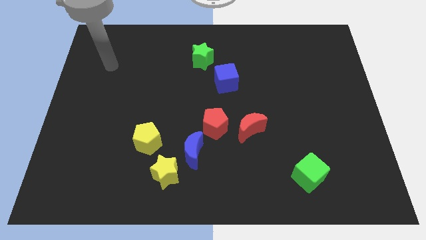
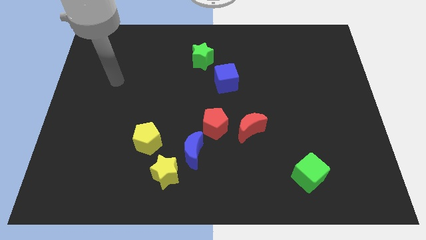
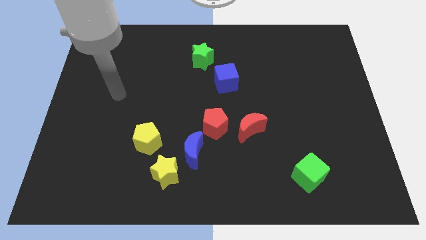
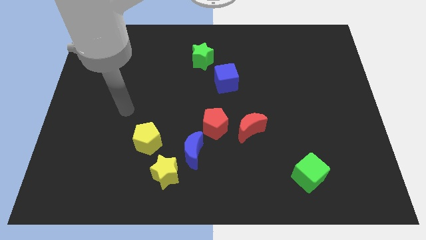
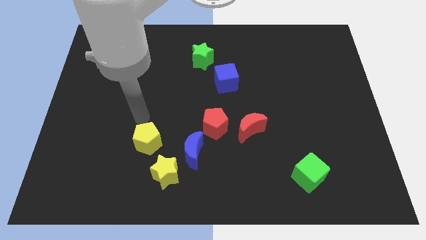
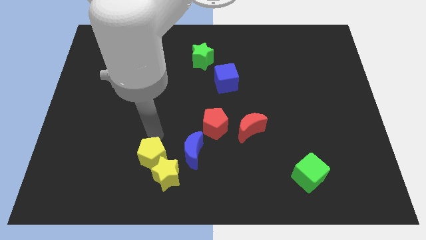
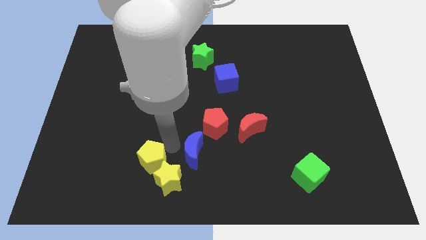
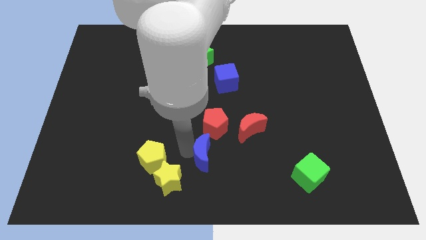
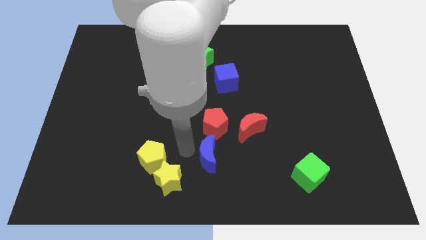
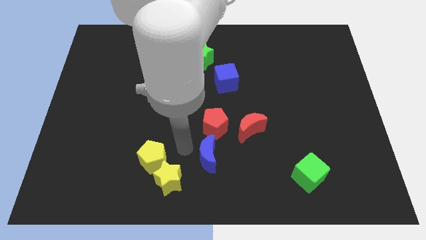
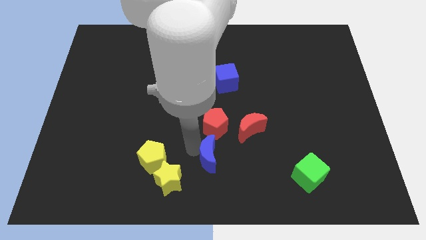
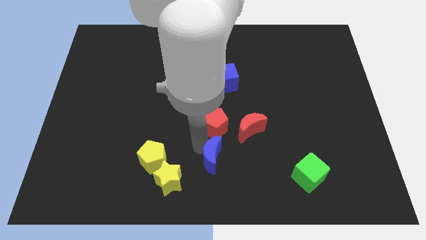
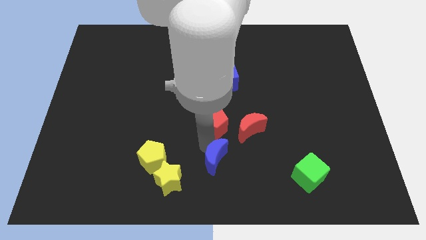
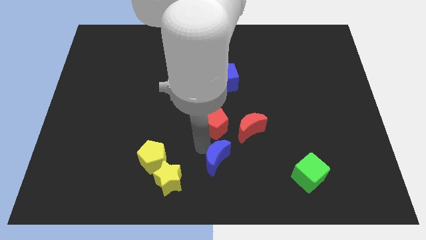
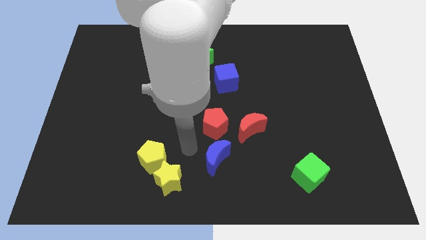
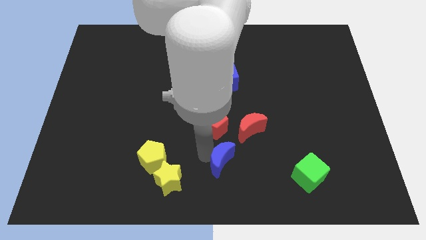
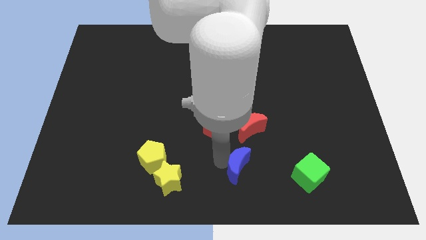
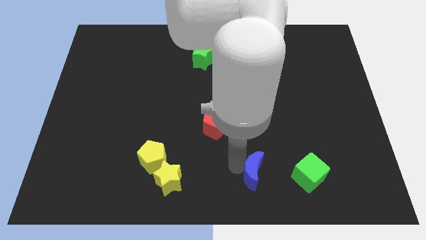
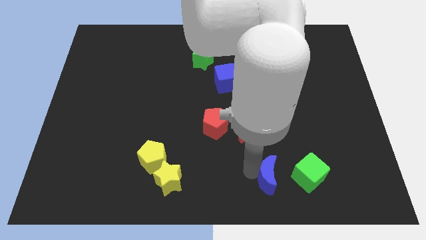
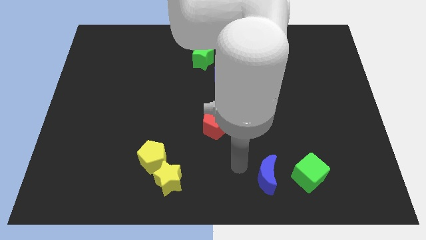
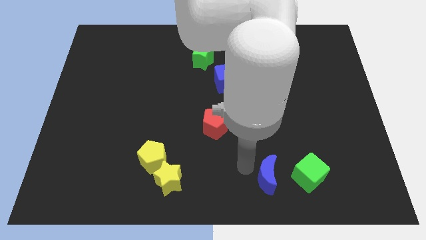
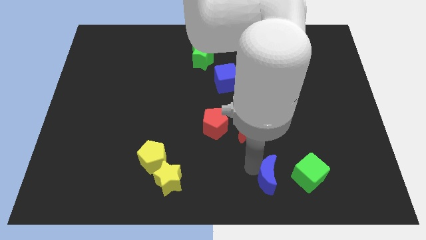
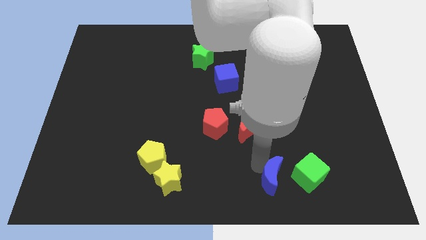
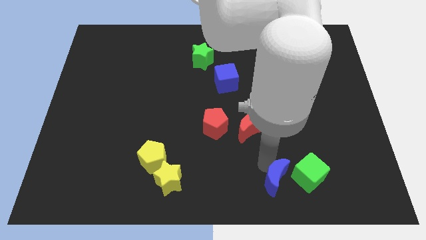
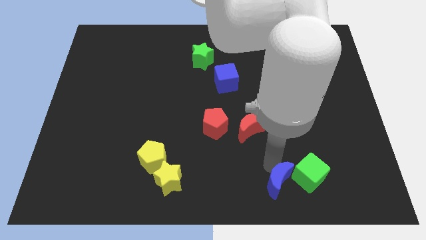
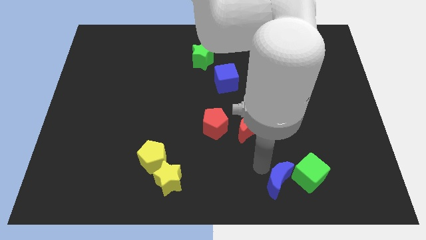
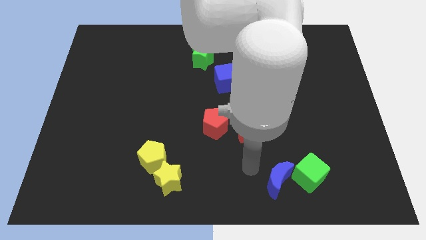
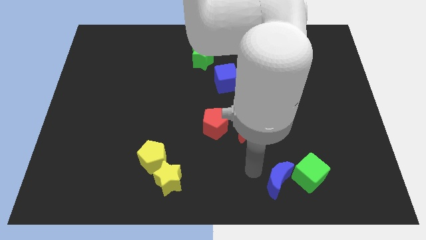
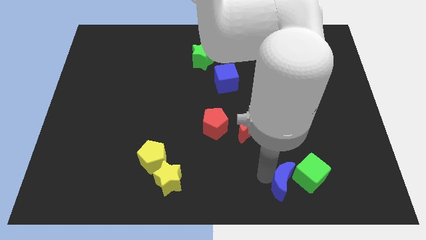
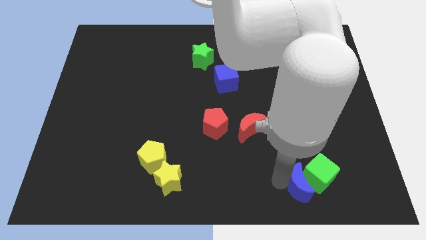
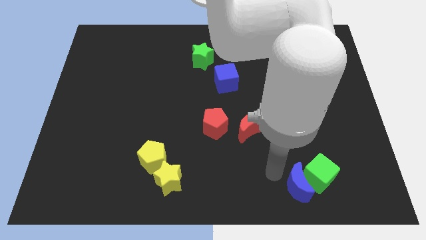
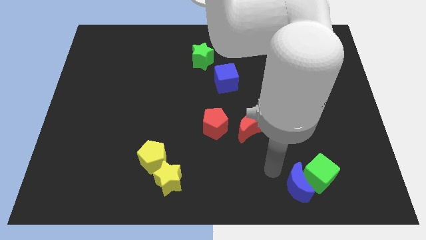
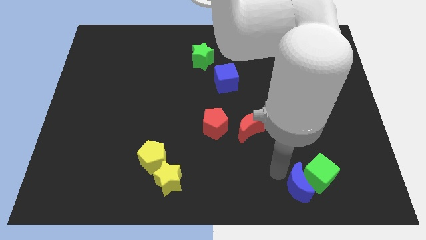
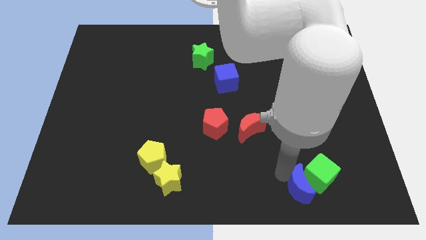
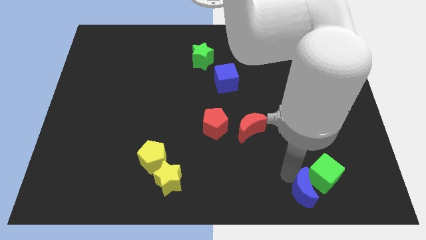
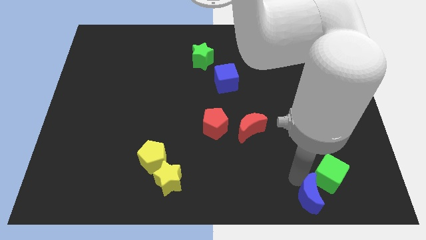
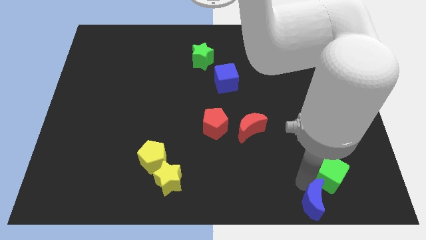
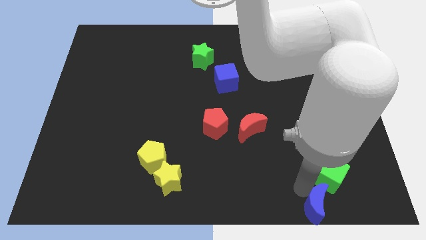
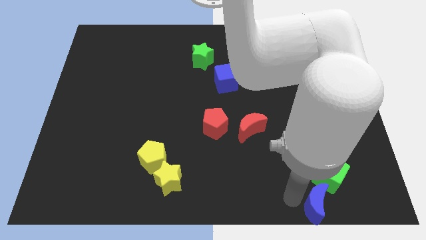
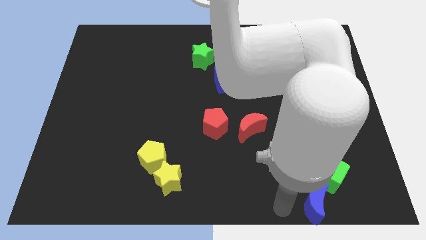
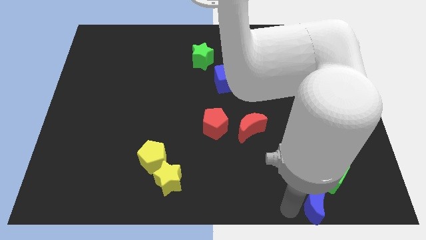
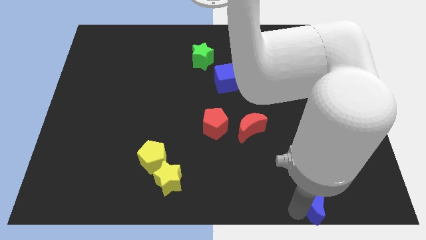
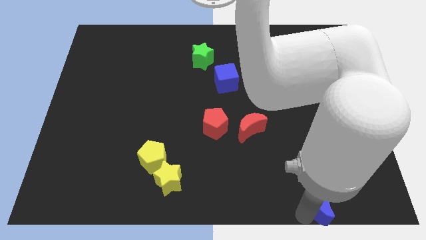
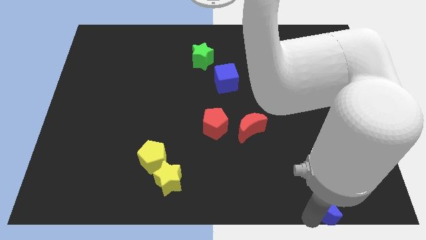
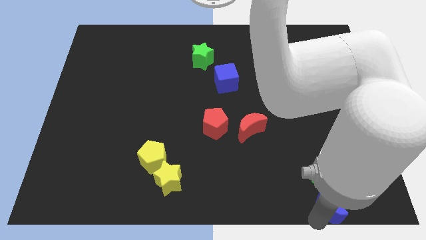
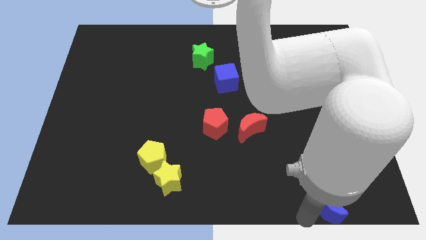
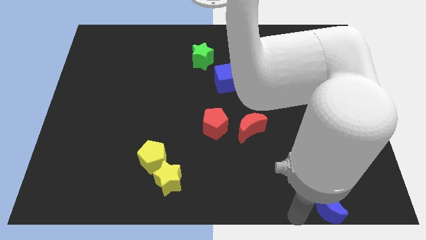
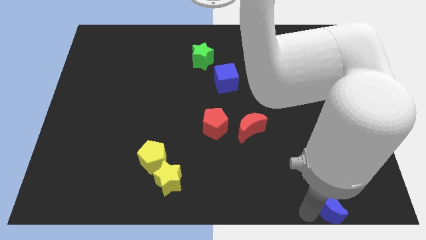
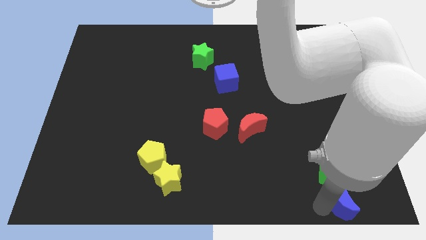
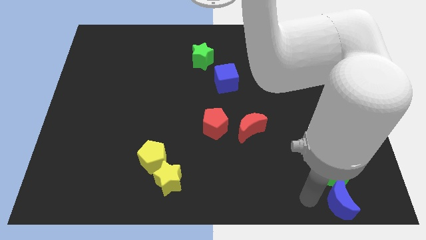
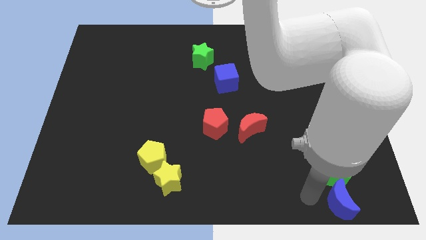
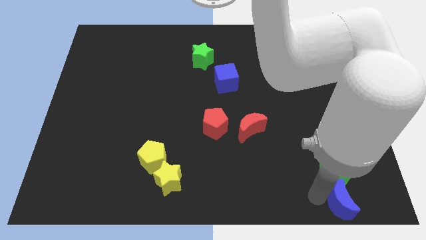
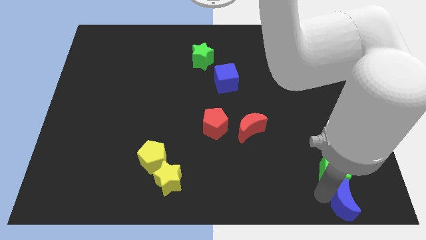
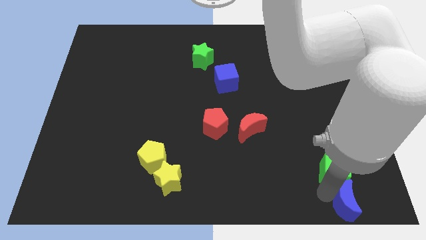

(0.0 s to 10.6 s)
push the blue moon to the bottom right of the board

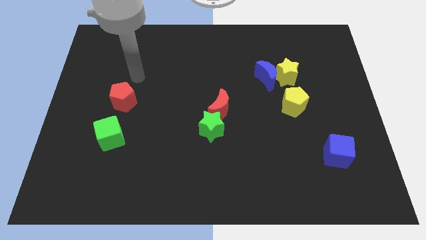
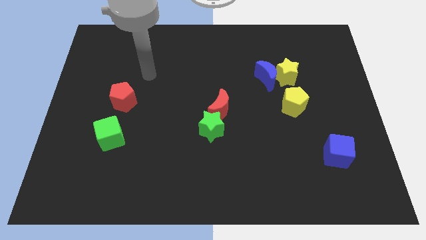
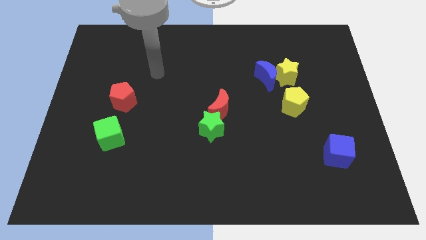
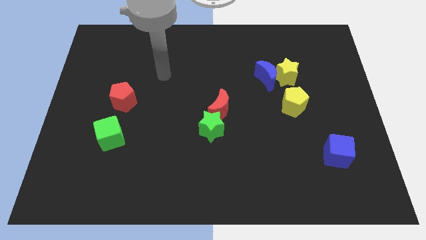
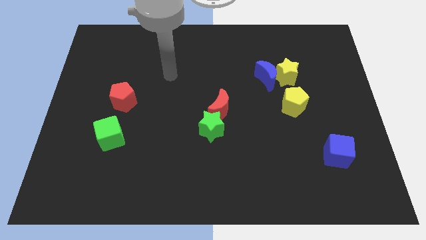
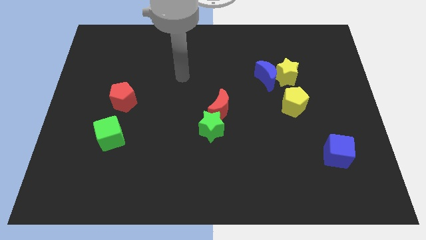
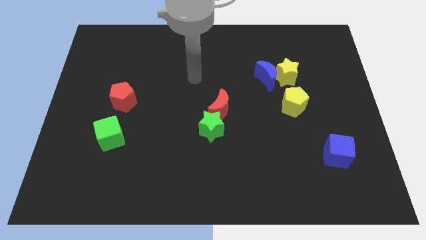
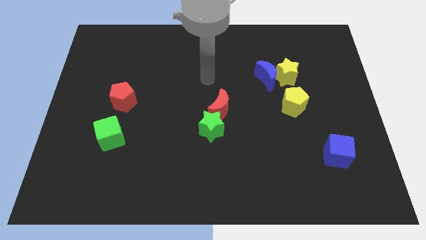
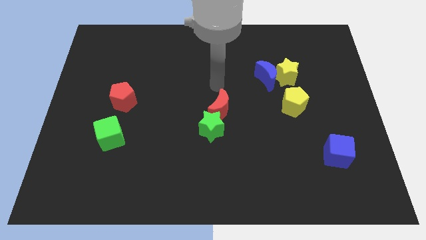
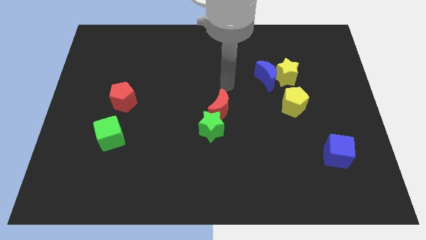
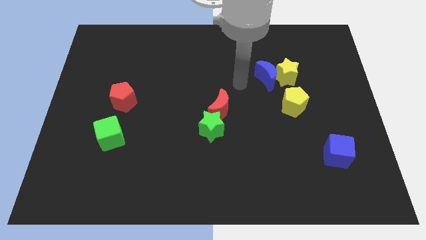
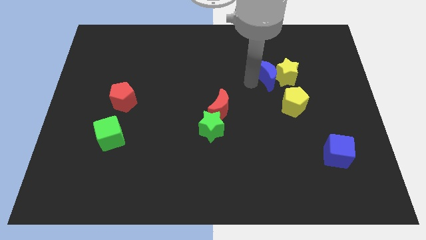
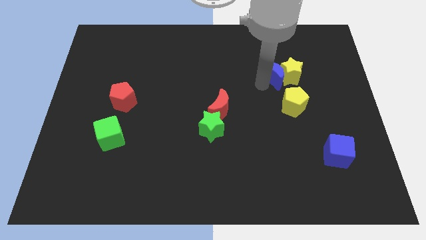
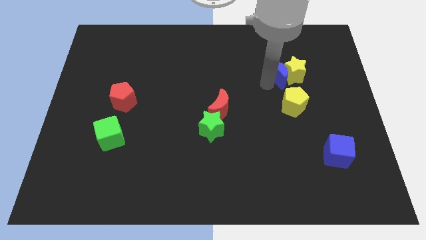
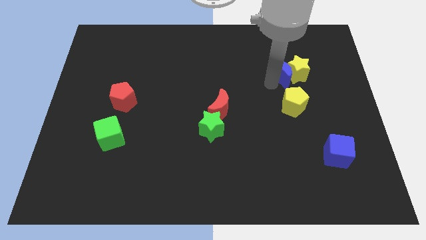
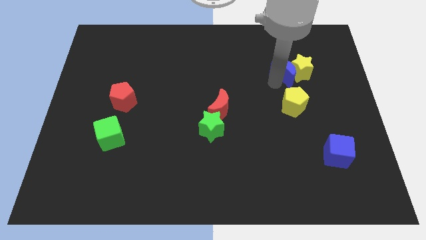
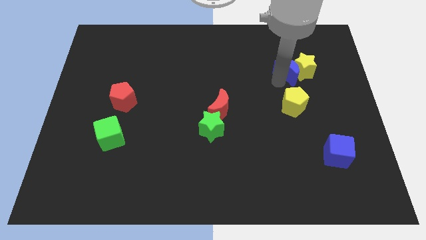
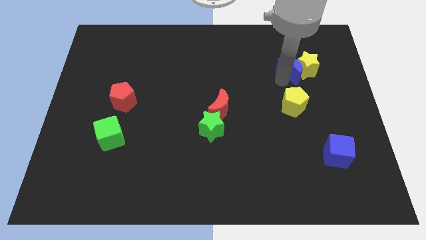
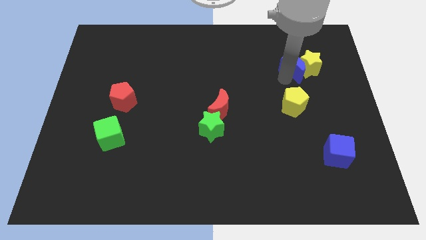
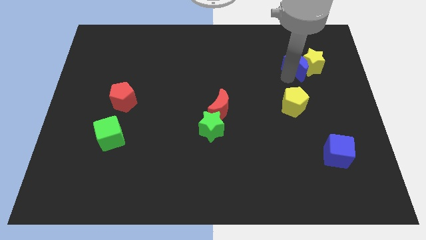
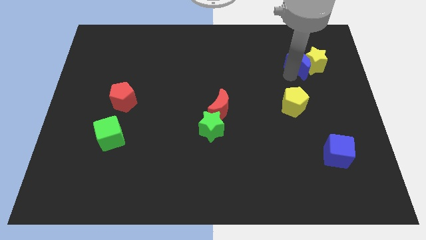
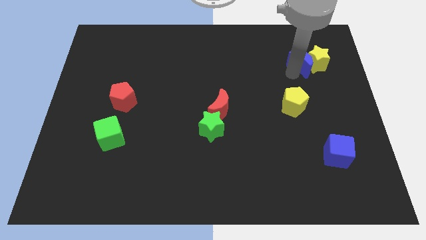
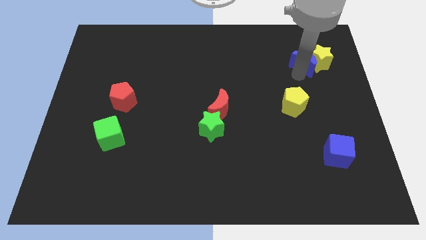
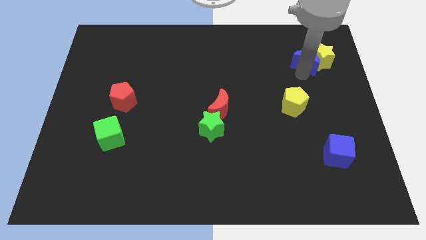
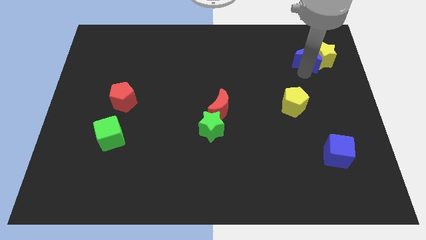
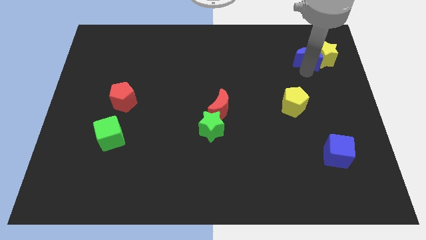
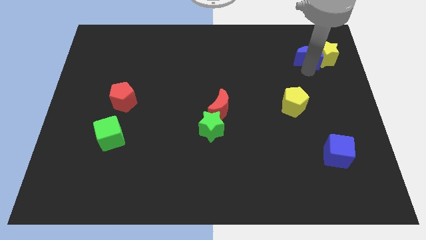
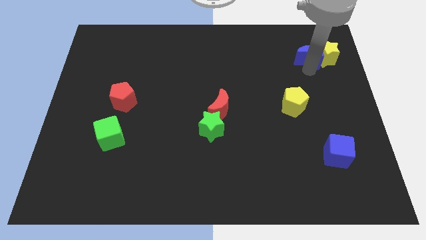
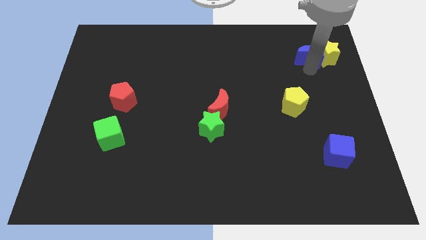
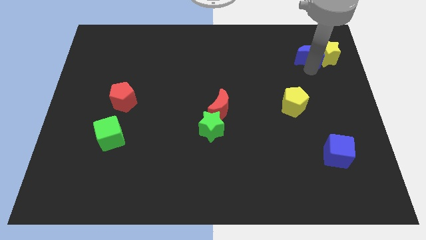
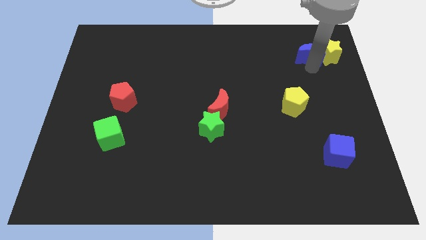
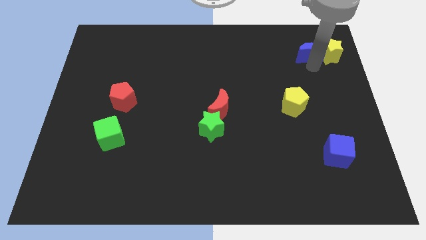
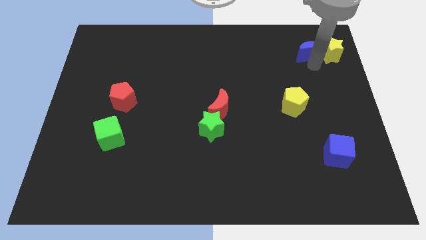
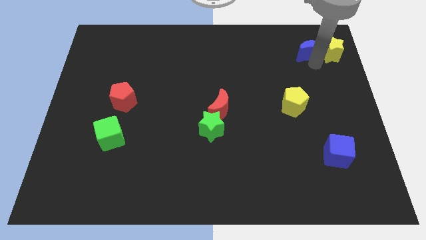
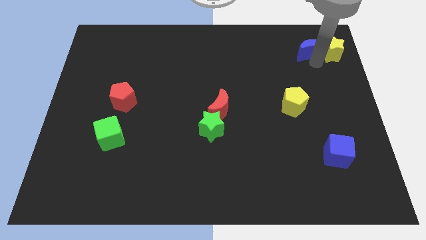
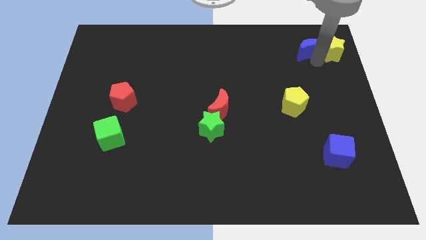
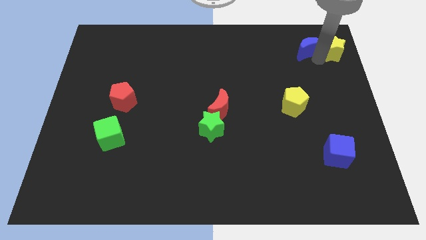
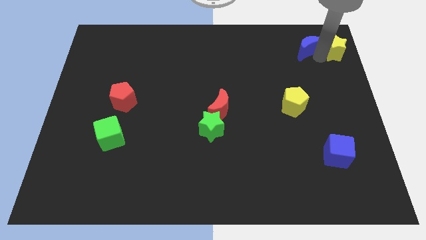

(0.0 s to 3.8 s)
slide the yellow star to the top right of the board
